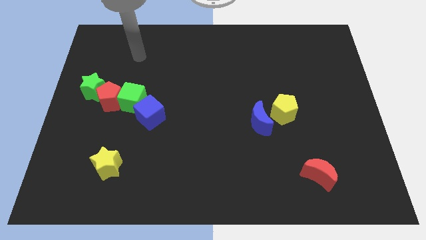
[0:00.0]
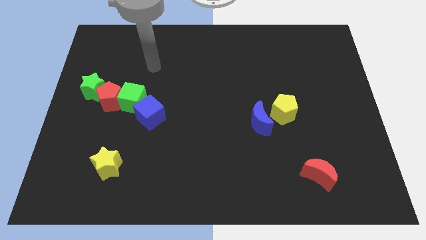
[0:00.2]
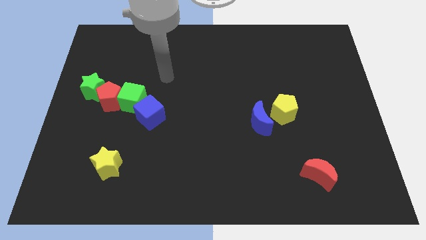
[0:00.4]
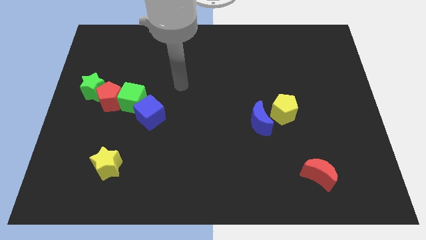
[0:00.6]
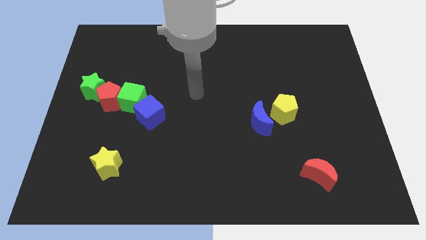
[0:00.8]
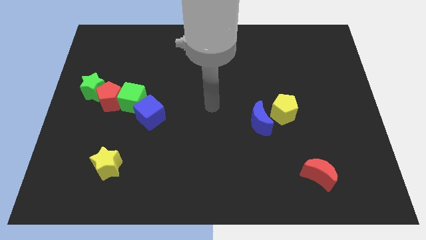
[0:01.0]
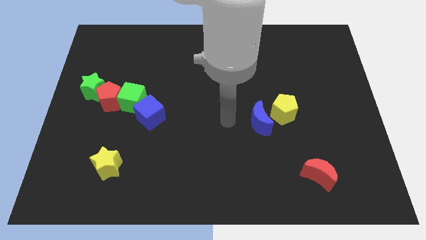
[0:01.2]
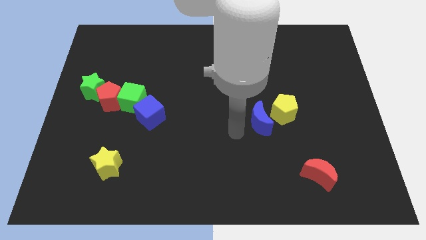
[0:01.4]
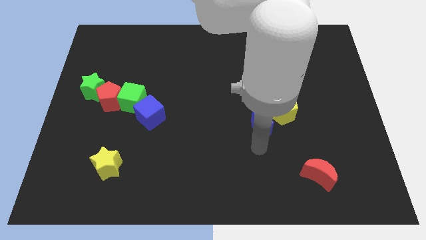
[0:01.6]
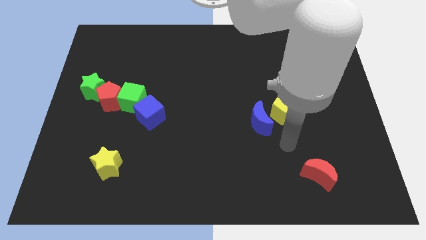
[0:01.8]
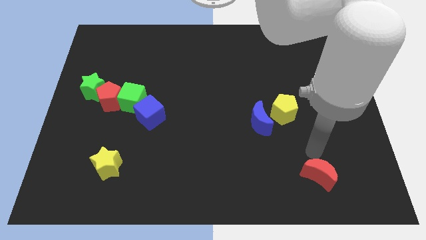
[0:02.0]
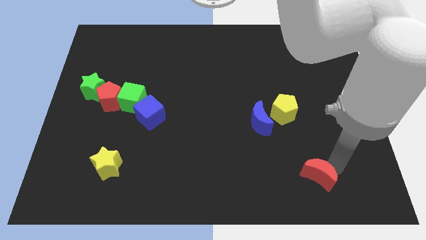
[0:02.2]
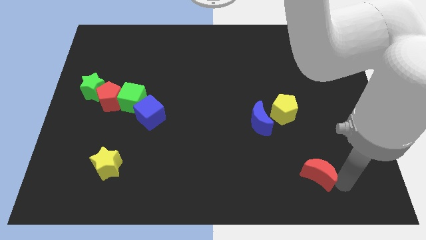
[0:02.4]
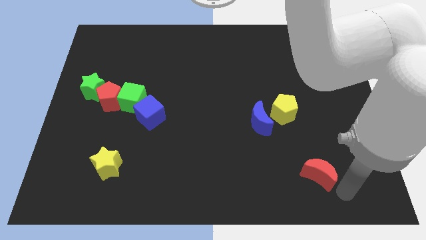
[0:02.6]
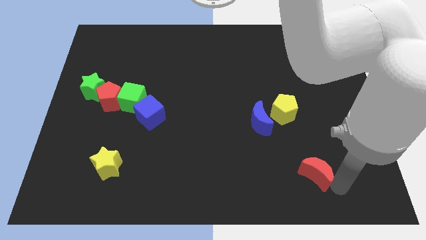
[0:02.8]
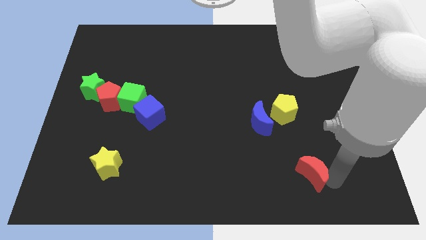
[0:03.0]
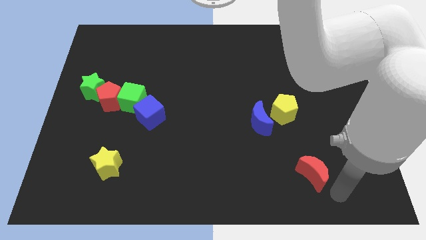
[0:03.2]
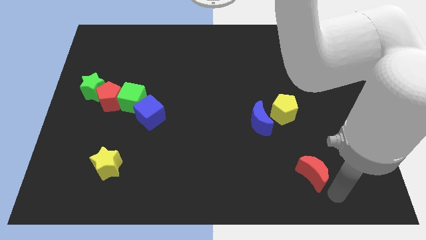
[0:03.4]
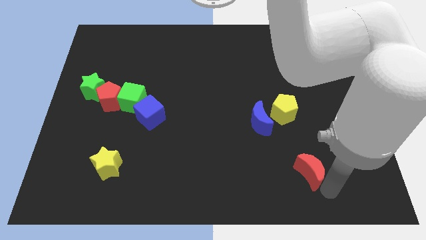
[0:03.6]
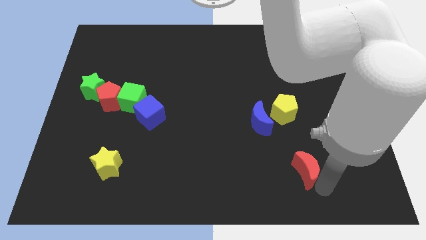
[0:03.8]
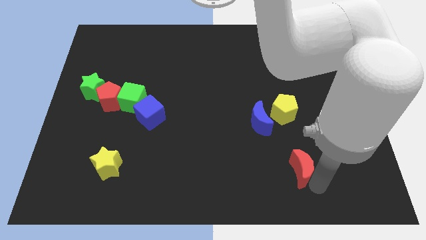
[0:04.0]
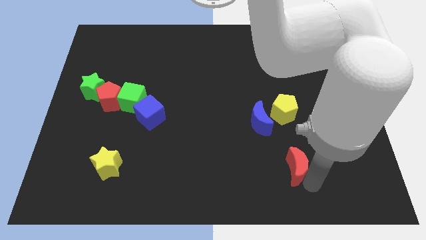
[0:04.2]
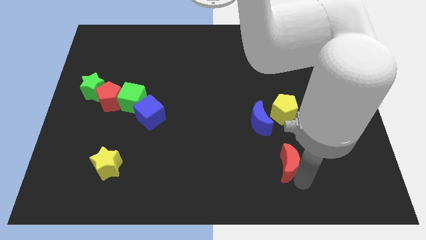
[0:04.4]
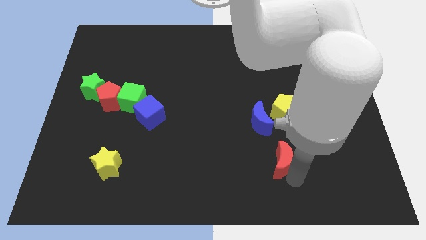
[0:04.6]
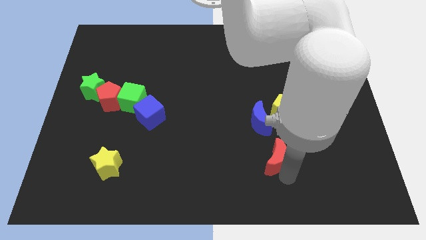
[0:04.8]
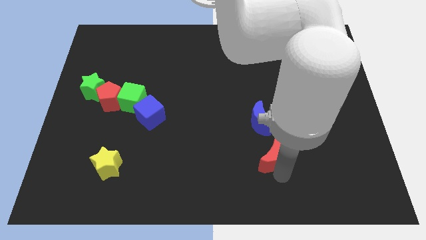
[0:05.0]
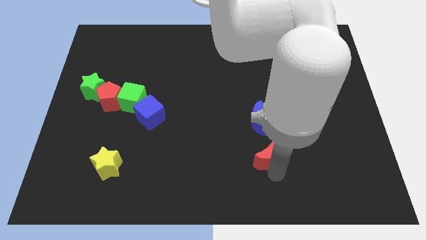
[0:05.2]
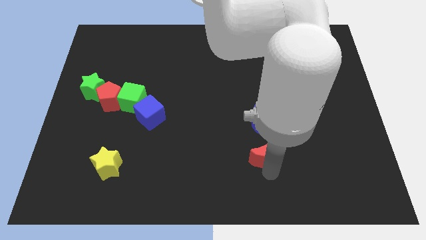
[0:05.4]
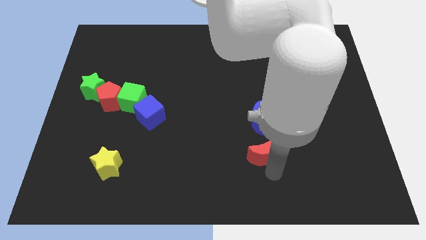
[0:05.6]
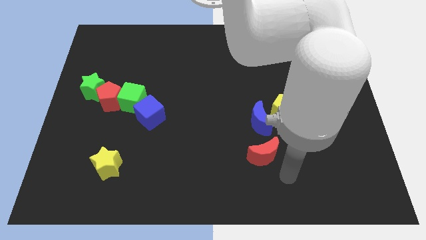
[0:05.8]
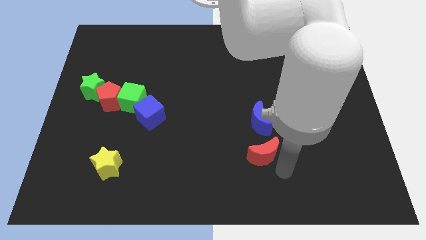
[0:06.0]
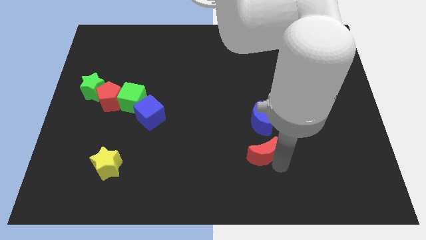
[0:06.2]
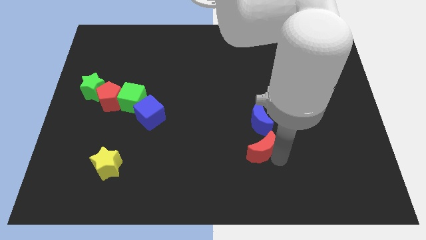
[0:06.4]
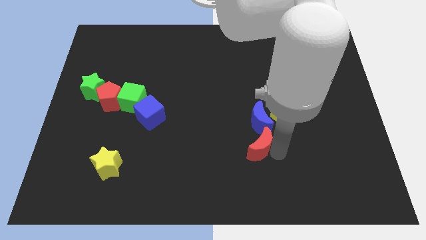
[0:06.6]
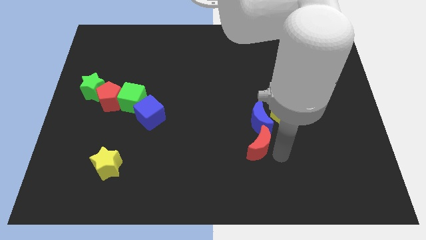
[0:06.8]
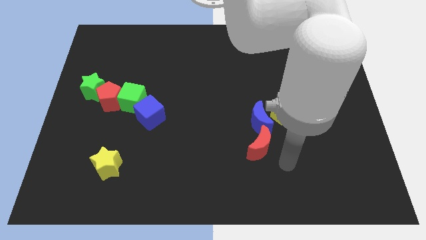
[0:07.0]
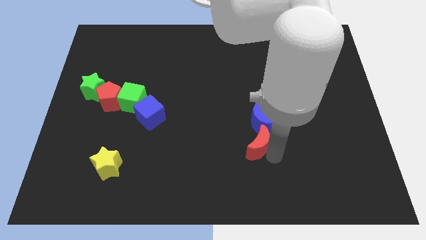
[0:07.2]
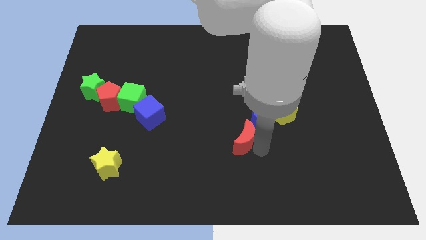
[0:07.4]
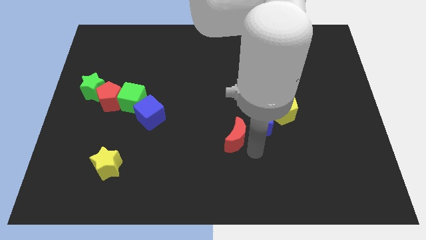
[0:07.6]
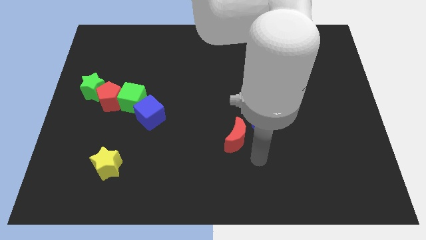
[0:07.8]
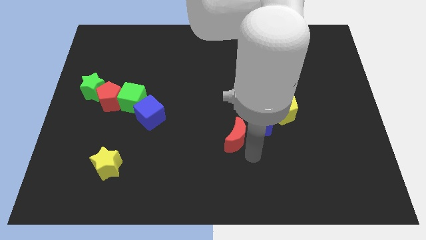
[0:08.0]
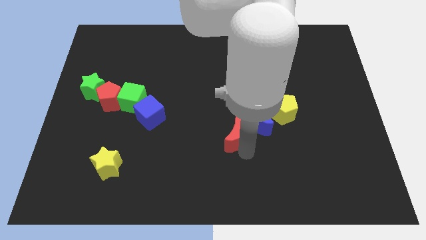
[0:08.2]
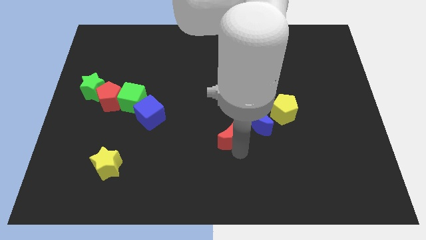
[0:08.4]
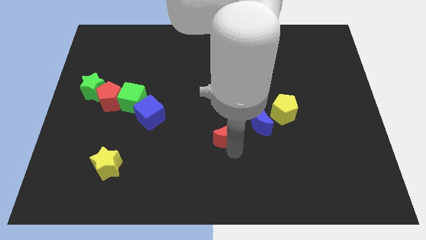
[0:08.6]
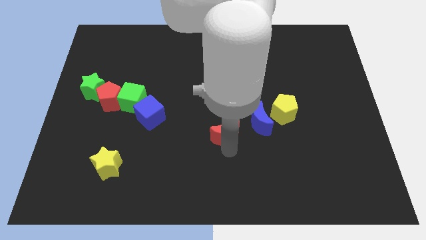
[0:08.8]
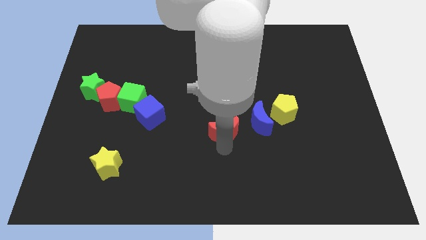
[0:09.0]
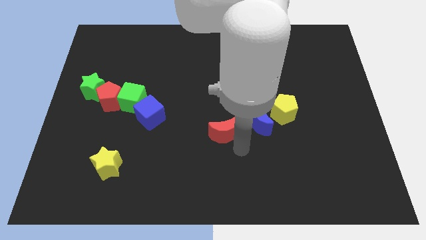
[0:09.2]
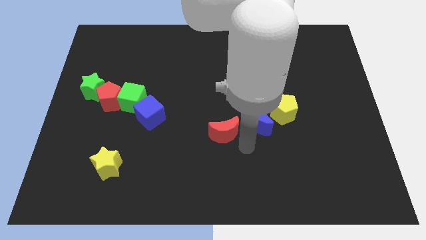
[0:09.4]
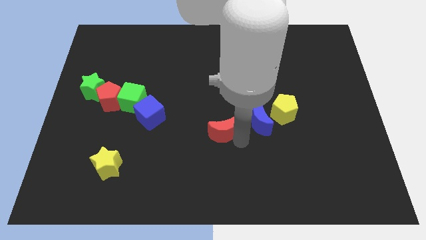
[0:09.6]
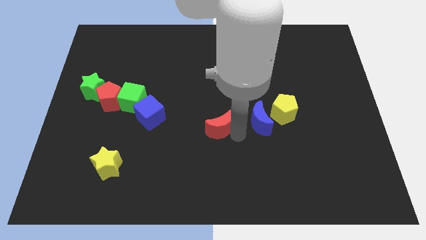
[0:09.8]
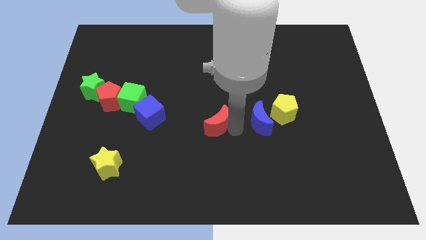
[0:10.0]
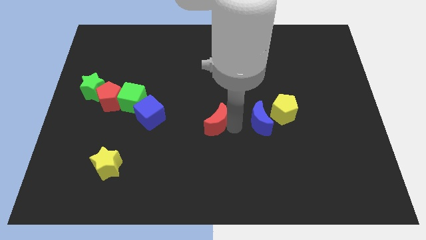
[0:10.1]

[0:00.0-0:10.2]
push the red moon to the right side of the blue cube

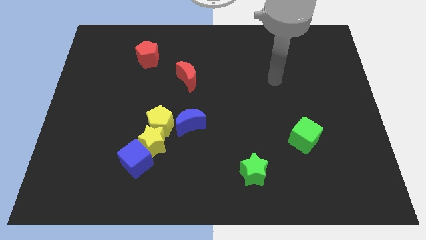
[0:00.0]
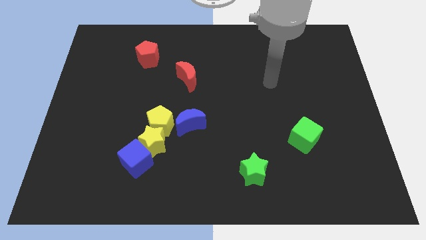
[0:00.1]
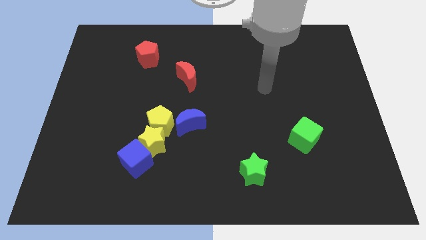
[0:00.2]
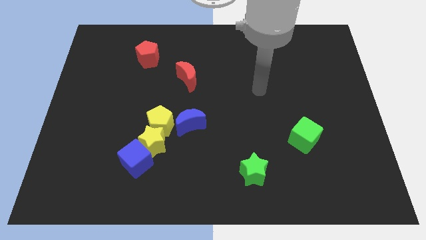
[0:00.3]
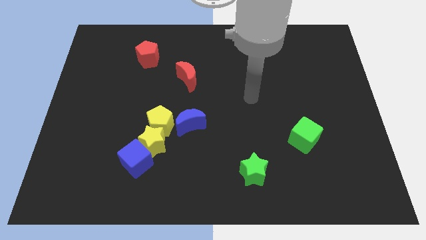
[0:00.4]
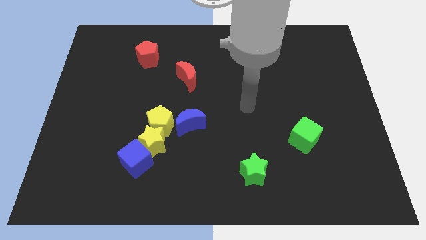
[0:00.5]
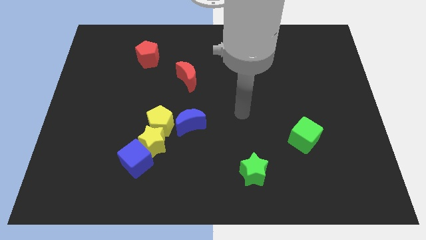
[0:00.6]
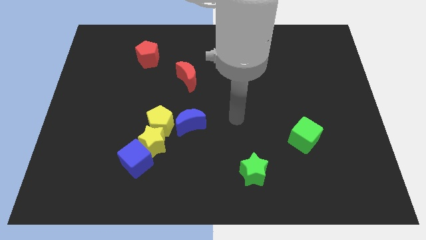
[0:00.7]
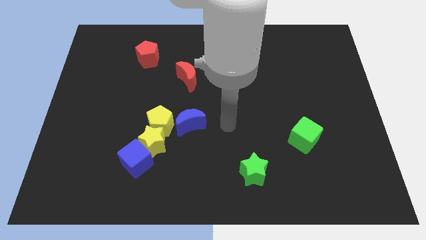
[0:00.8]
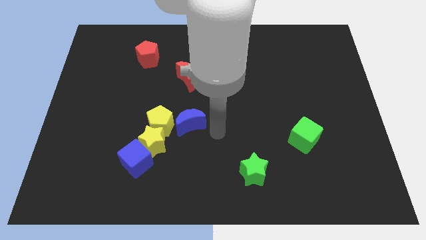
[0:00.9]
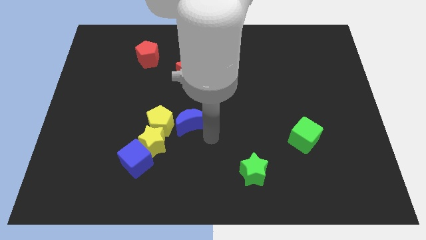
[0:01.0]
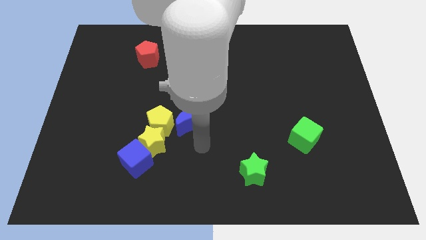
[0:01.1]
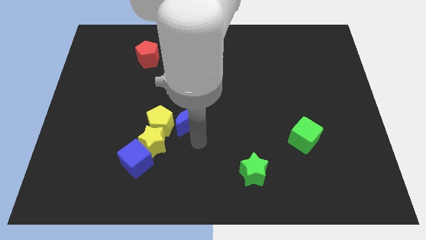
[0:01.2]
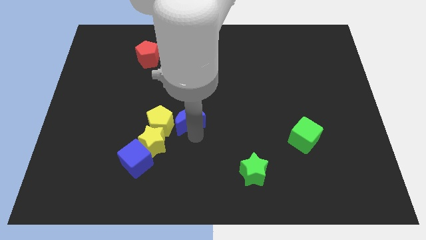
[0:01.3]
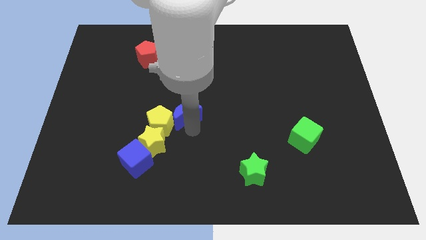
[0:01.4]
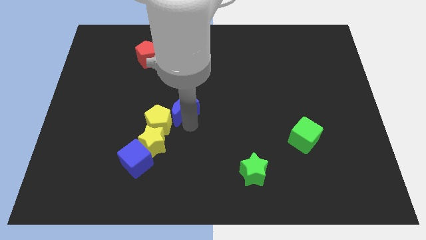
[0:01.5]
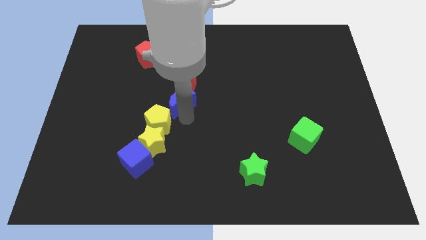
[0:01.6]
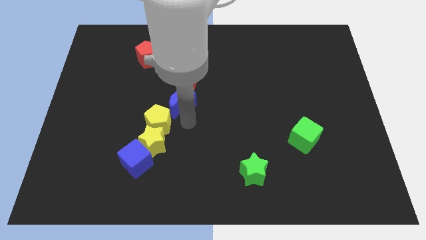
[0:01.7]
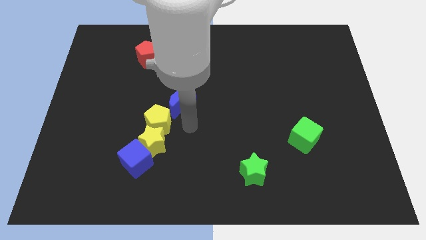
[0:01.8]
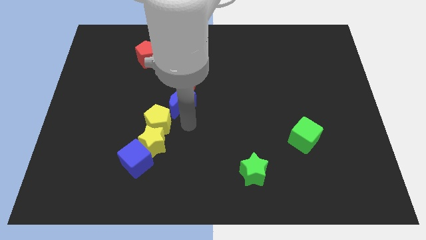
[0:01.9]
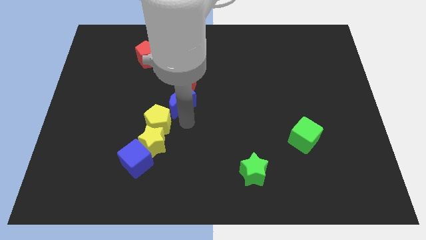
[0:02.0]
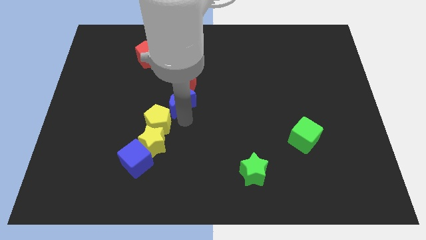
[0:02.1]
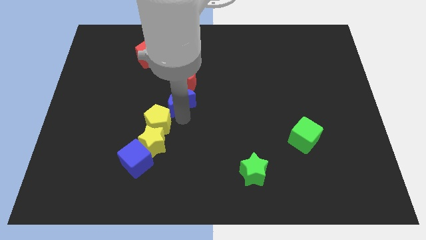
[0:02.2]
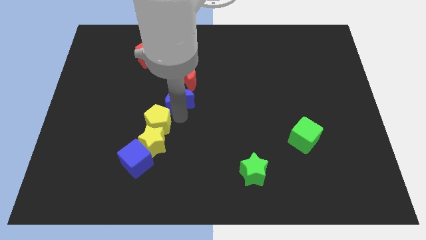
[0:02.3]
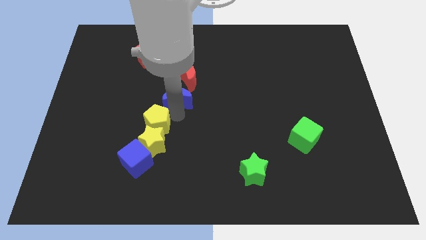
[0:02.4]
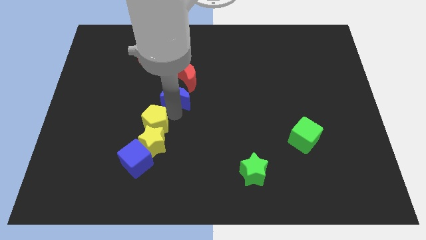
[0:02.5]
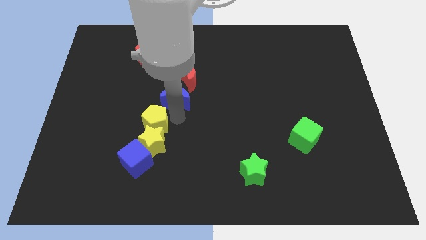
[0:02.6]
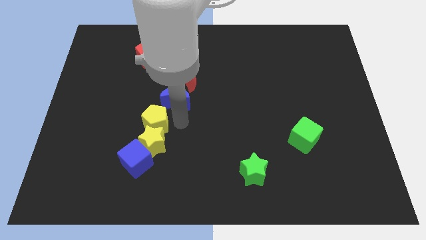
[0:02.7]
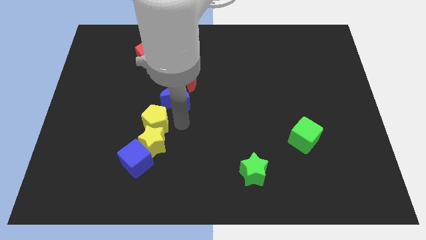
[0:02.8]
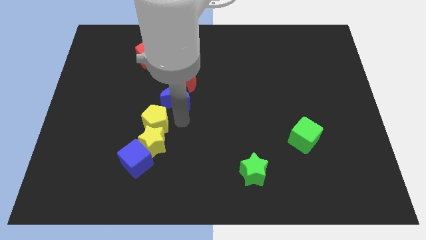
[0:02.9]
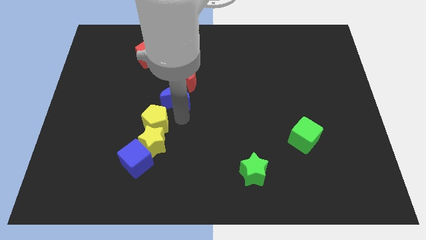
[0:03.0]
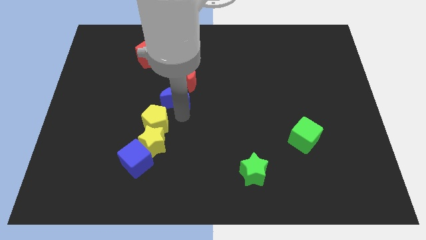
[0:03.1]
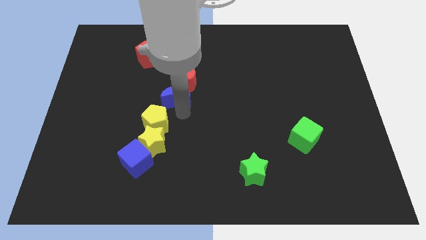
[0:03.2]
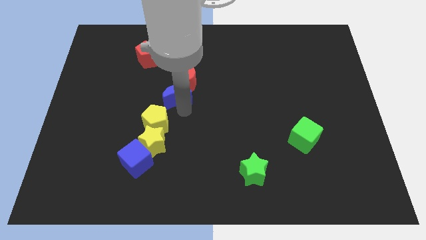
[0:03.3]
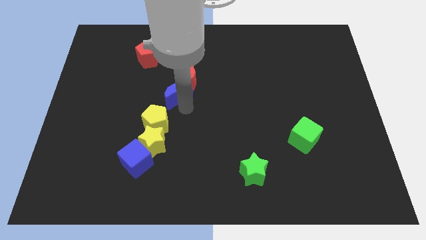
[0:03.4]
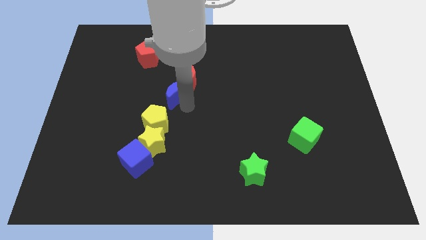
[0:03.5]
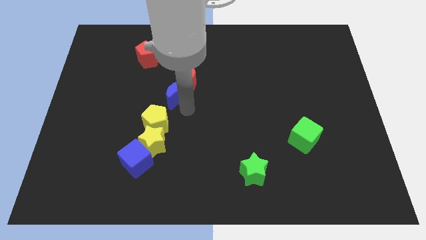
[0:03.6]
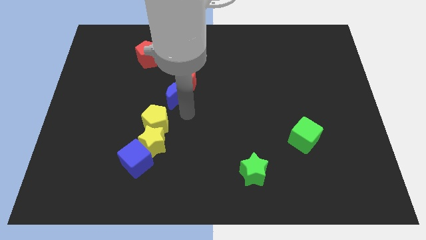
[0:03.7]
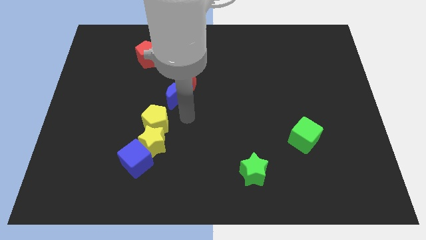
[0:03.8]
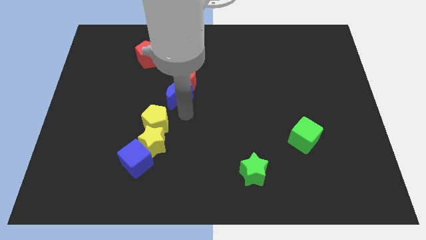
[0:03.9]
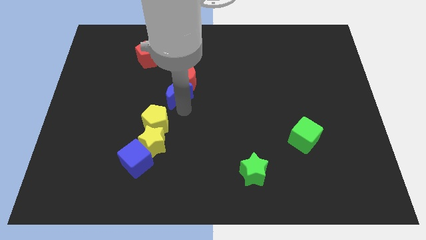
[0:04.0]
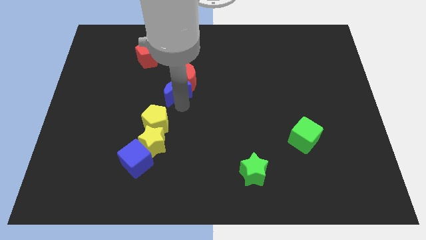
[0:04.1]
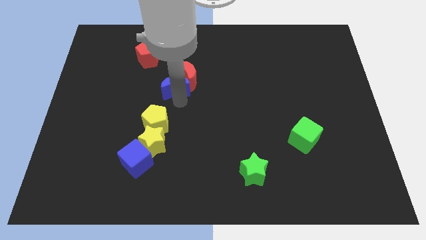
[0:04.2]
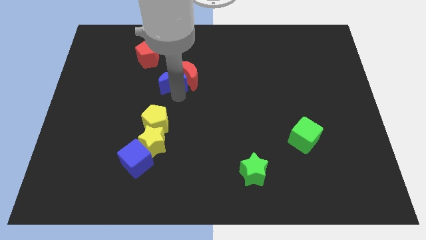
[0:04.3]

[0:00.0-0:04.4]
move the blue moon to the bottom right side of the red pentagon
